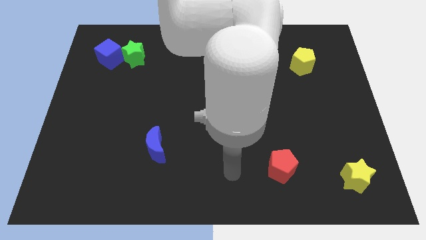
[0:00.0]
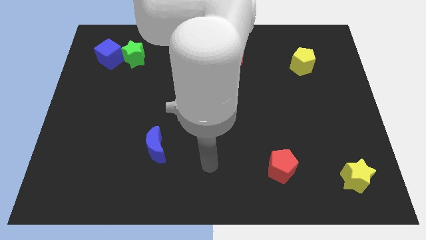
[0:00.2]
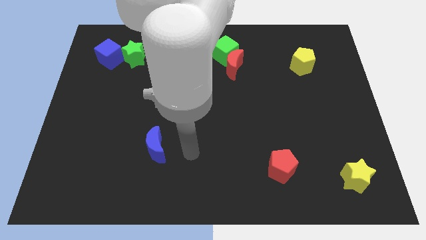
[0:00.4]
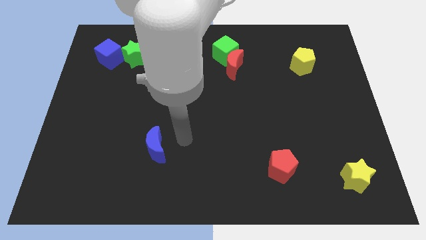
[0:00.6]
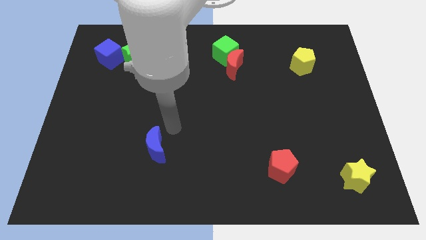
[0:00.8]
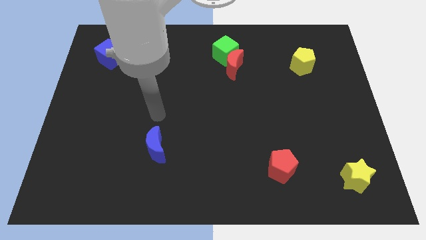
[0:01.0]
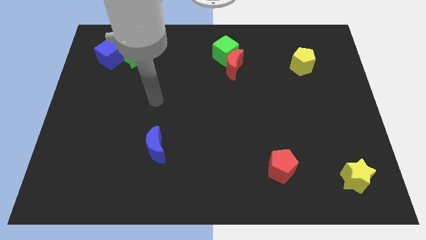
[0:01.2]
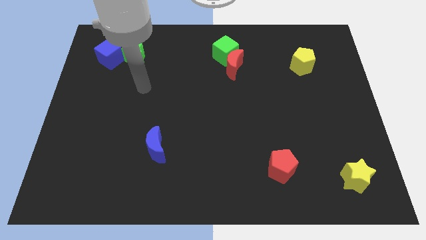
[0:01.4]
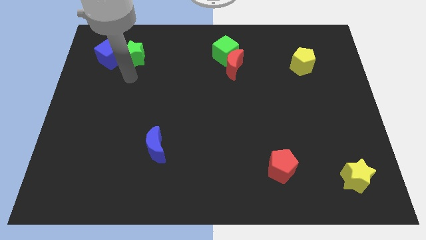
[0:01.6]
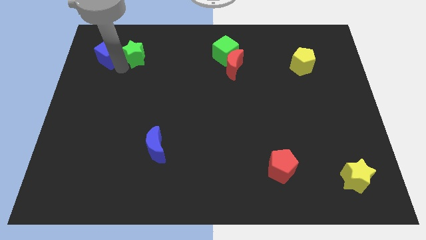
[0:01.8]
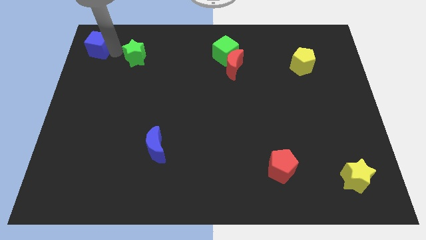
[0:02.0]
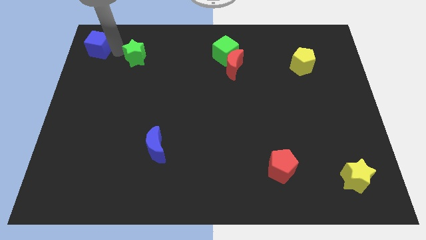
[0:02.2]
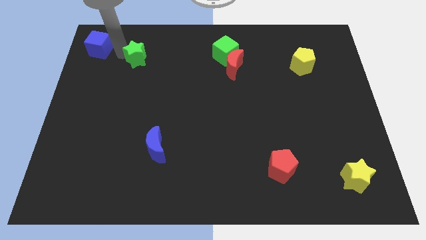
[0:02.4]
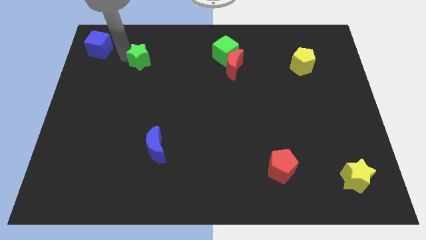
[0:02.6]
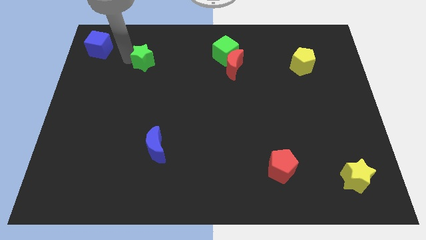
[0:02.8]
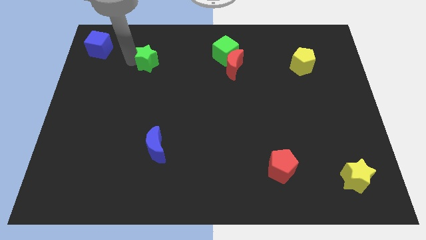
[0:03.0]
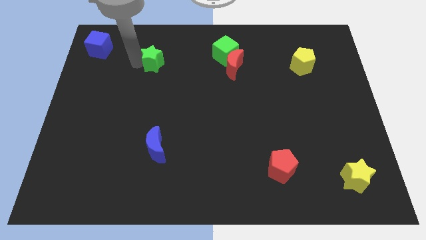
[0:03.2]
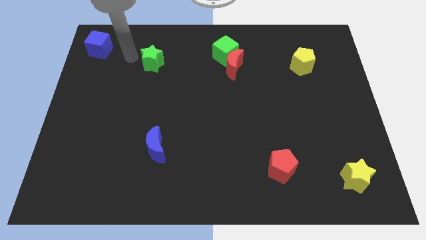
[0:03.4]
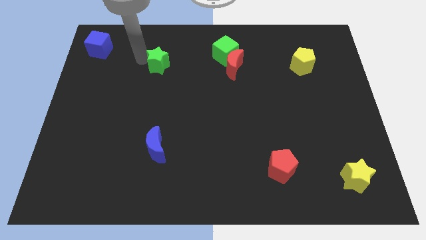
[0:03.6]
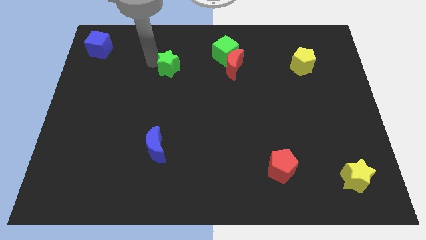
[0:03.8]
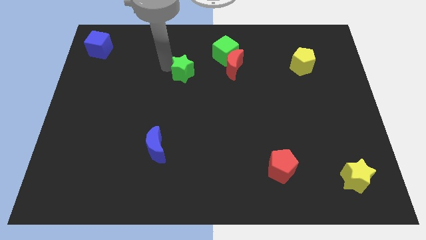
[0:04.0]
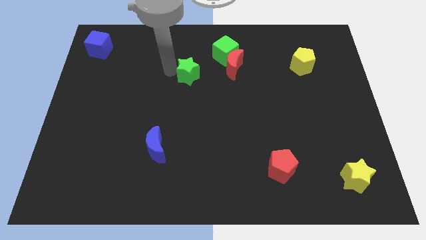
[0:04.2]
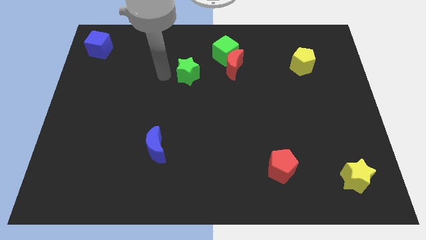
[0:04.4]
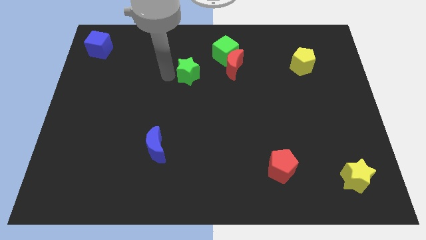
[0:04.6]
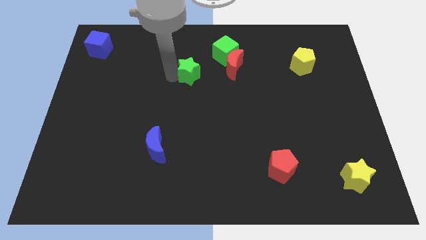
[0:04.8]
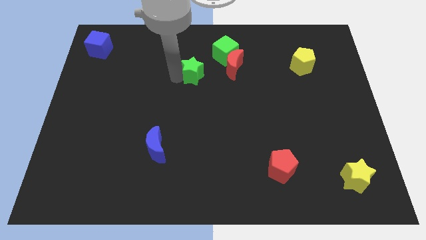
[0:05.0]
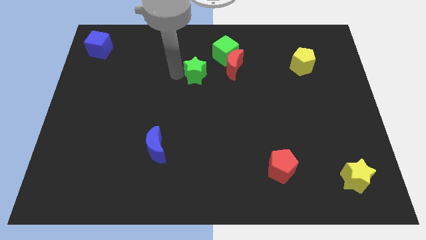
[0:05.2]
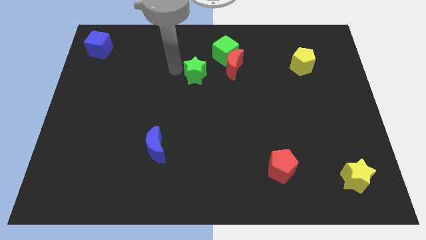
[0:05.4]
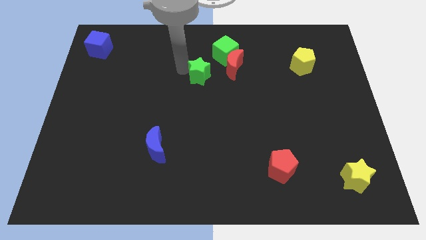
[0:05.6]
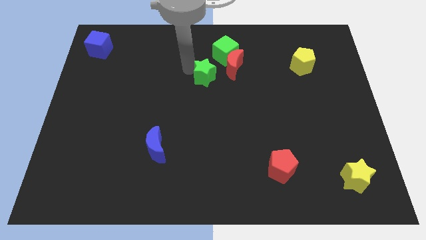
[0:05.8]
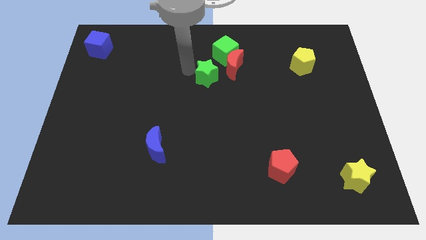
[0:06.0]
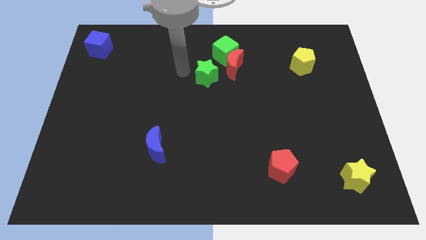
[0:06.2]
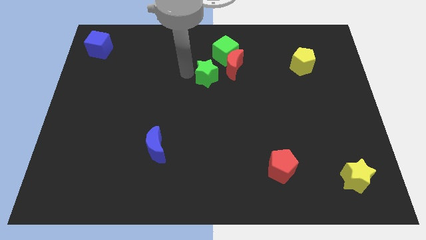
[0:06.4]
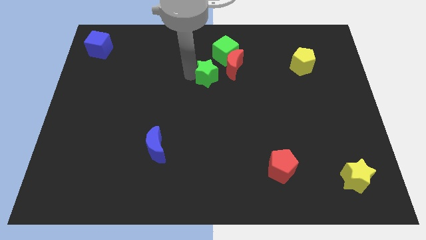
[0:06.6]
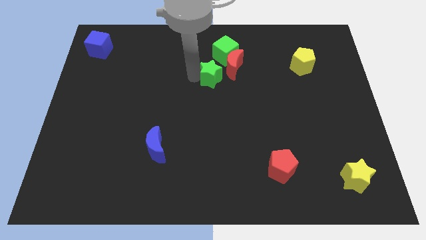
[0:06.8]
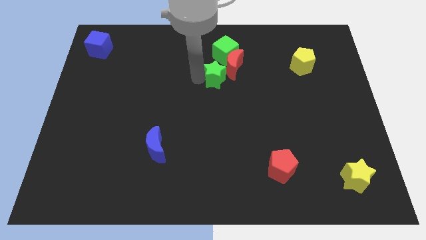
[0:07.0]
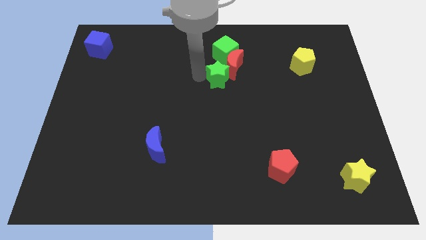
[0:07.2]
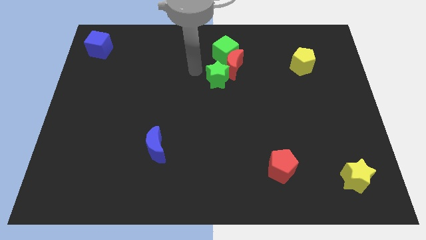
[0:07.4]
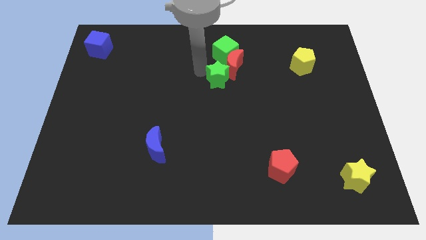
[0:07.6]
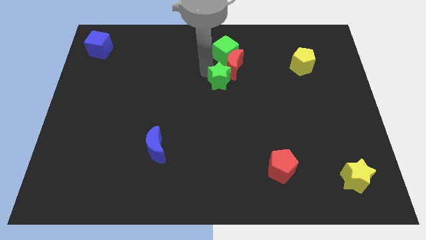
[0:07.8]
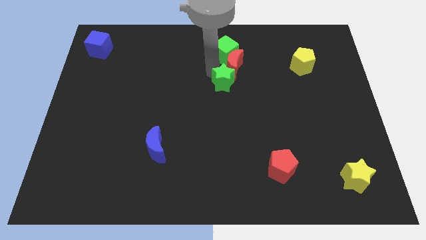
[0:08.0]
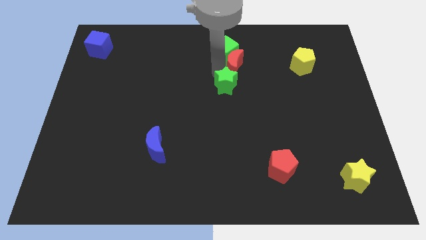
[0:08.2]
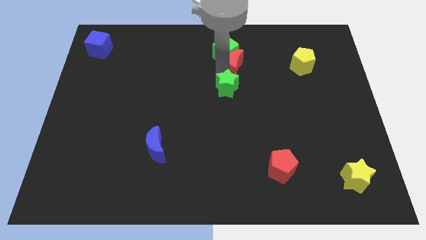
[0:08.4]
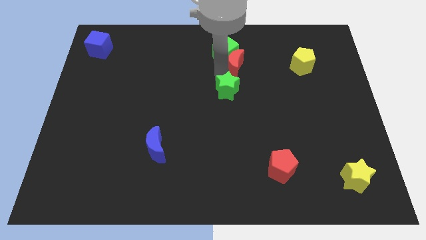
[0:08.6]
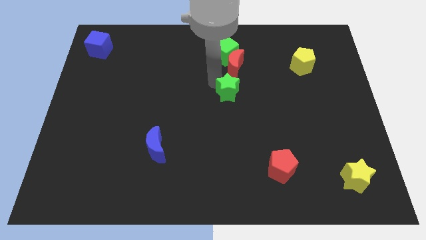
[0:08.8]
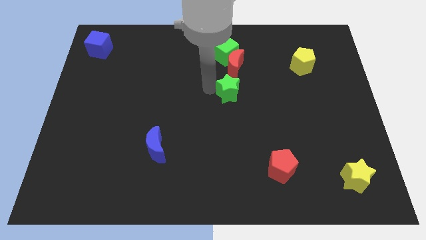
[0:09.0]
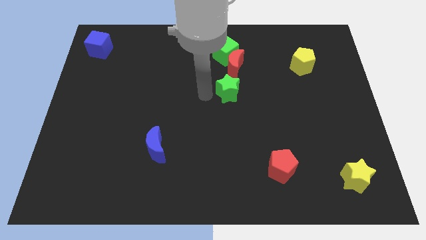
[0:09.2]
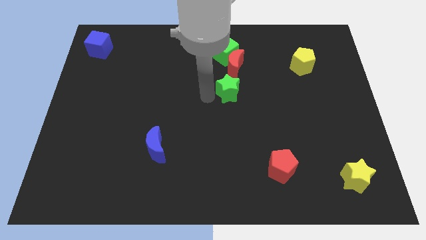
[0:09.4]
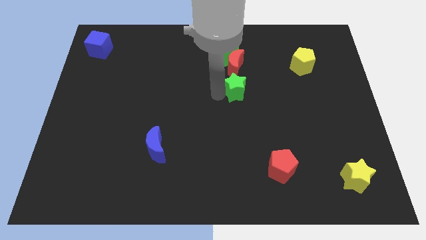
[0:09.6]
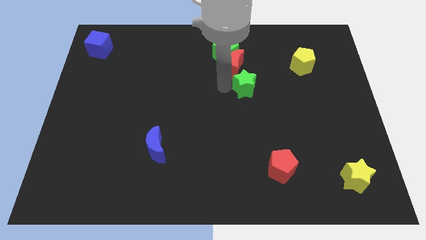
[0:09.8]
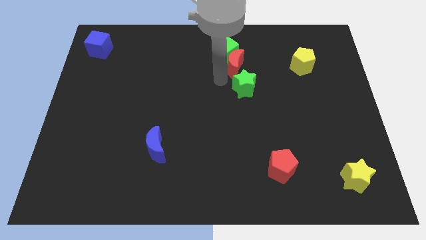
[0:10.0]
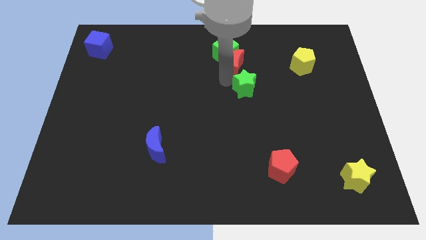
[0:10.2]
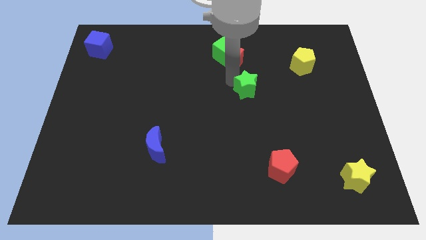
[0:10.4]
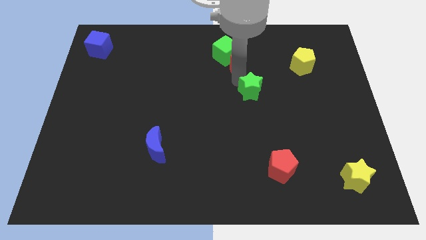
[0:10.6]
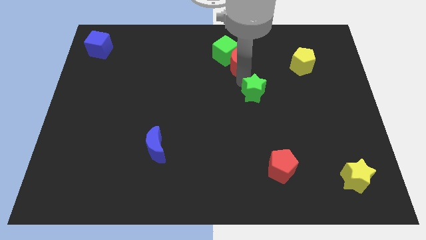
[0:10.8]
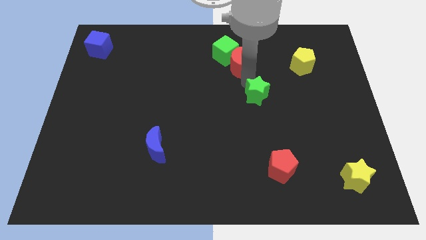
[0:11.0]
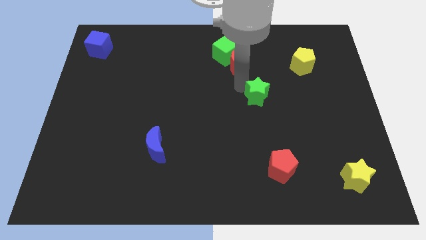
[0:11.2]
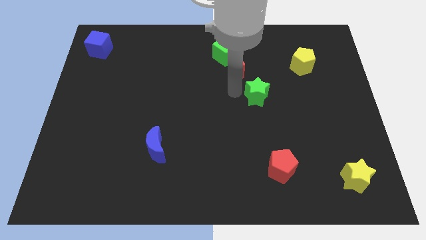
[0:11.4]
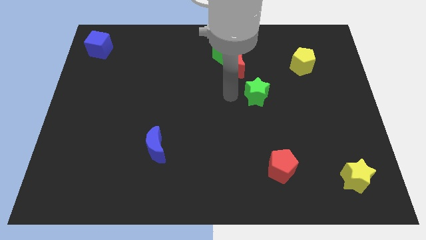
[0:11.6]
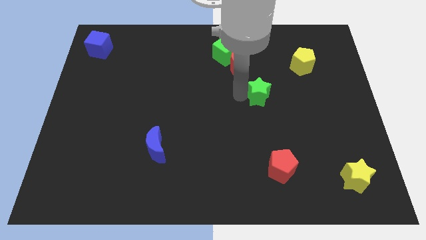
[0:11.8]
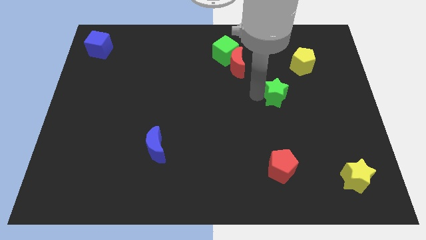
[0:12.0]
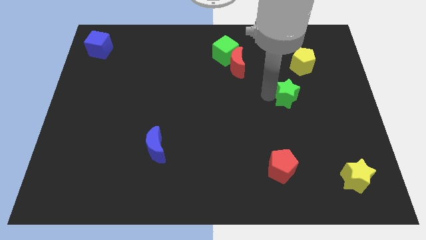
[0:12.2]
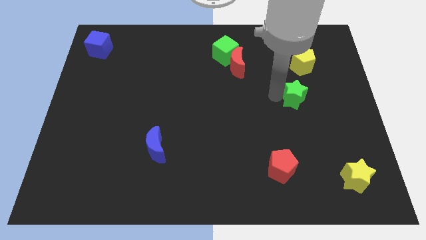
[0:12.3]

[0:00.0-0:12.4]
move the green star to the bottom of the yellow pentagon
